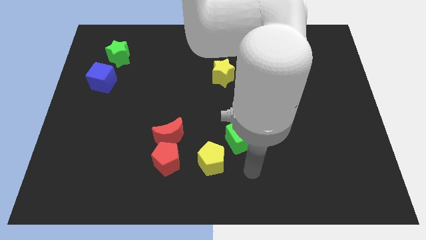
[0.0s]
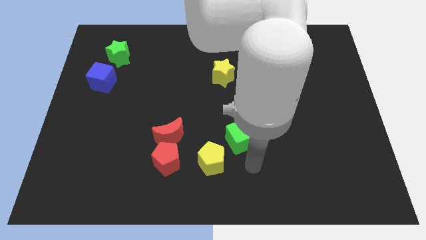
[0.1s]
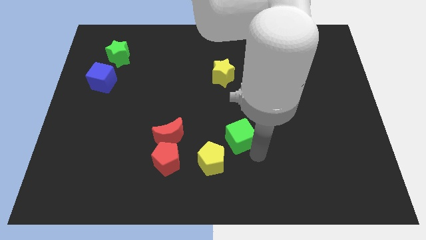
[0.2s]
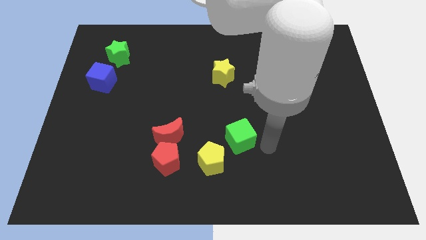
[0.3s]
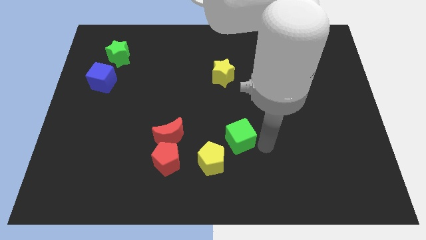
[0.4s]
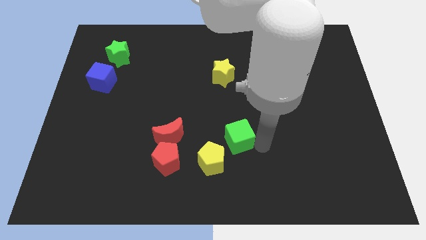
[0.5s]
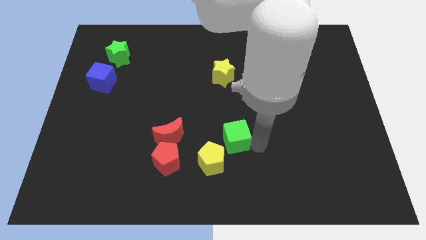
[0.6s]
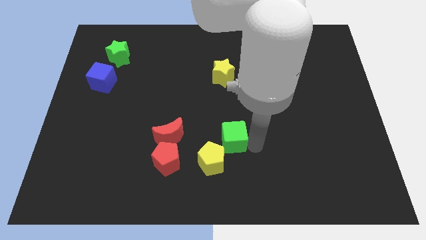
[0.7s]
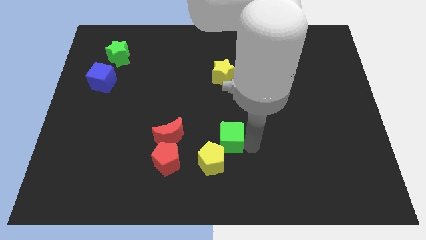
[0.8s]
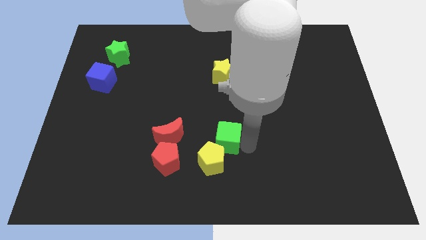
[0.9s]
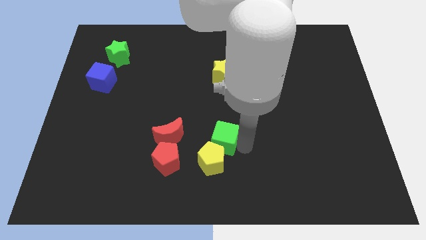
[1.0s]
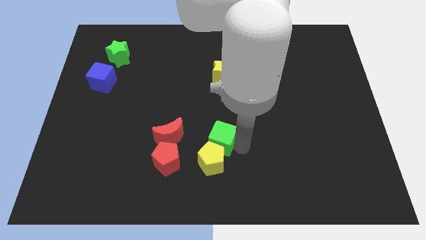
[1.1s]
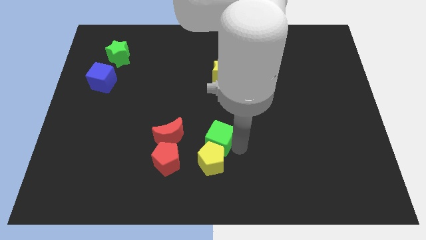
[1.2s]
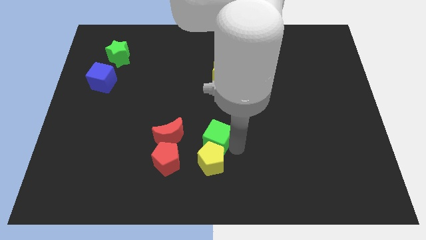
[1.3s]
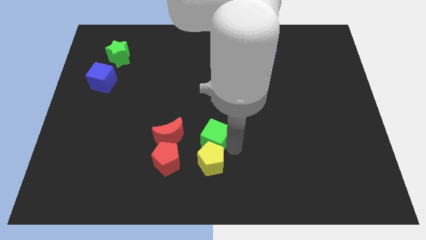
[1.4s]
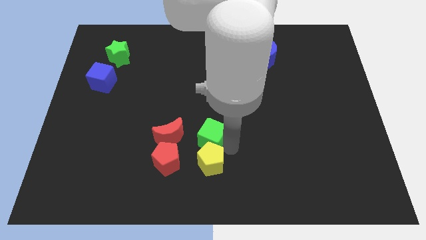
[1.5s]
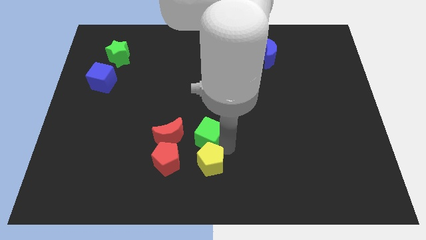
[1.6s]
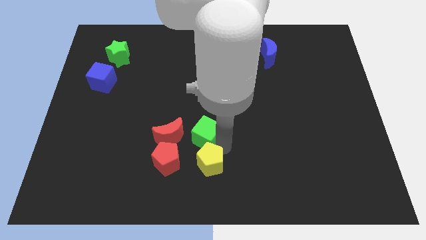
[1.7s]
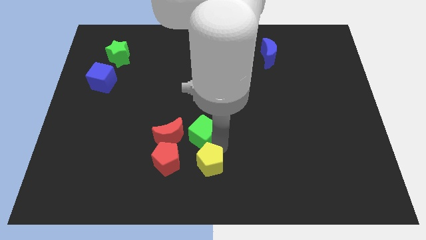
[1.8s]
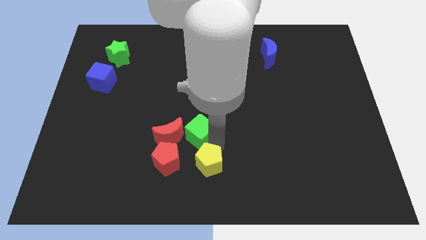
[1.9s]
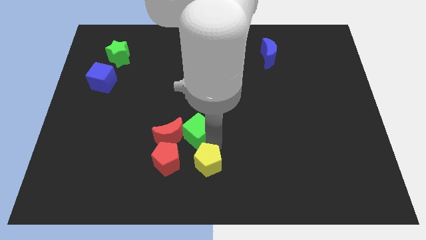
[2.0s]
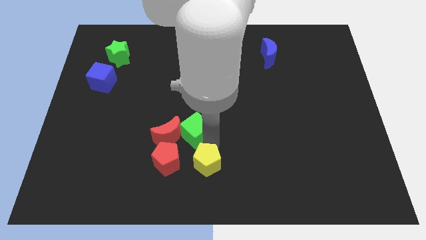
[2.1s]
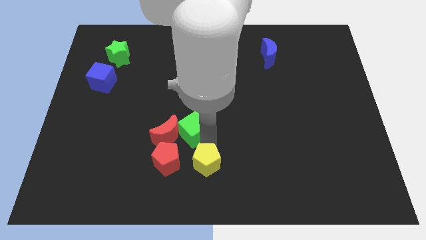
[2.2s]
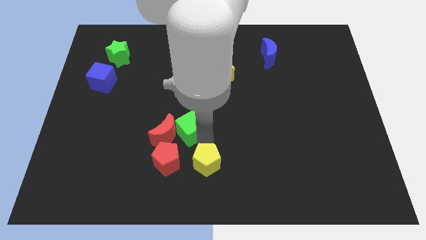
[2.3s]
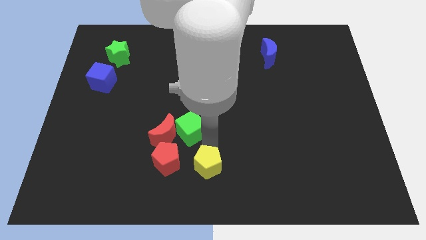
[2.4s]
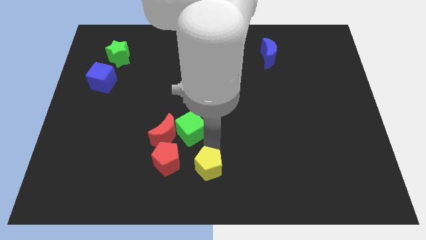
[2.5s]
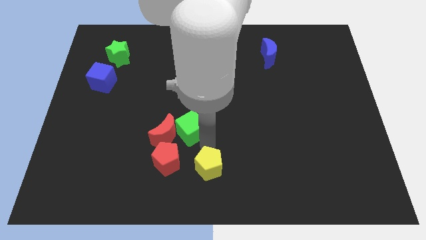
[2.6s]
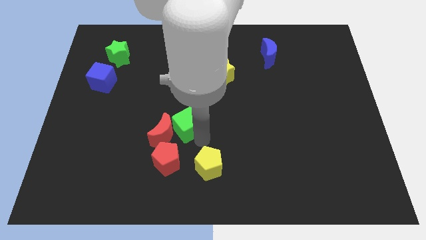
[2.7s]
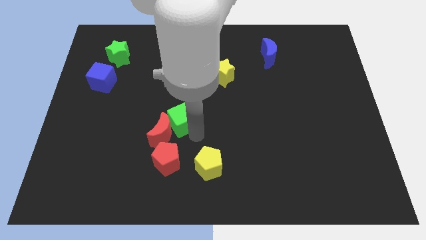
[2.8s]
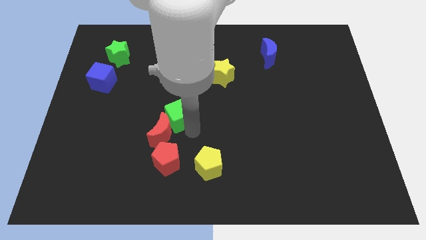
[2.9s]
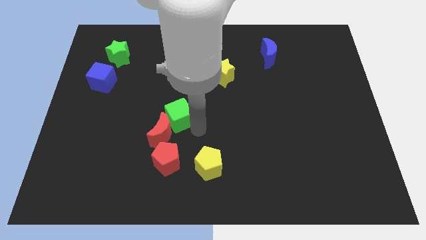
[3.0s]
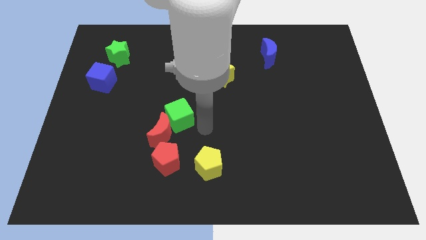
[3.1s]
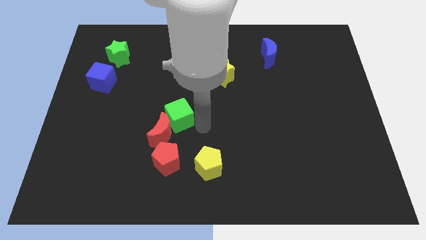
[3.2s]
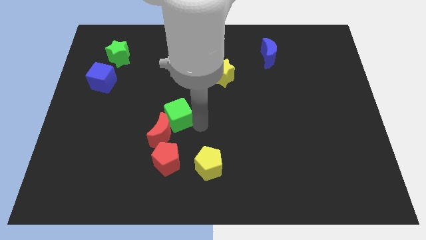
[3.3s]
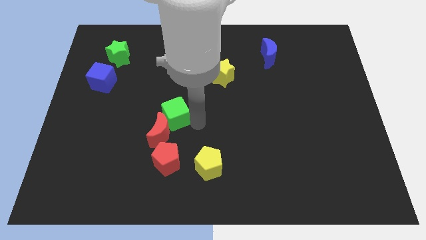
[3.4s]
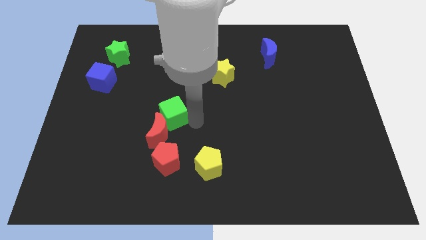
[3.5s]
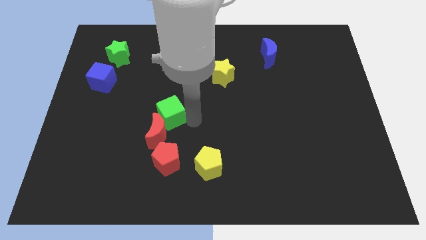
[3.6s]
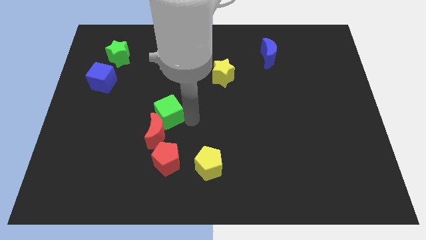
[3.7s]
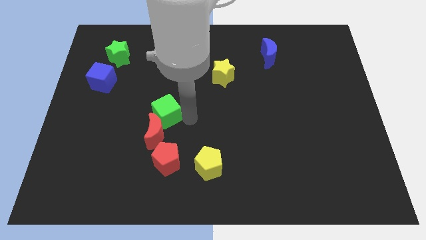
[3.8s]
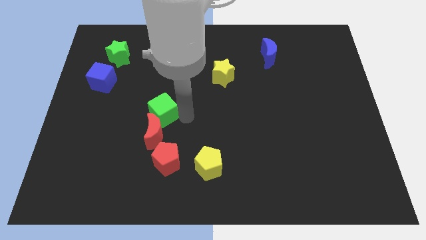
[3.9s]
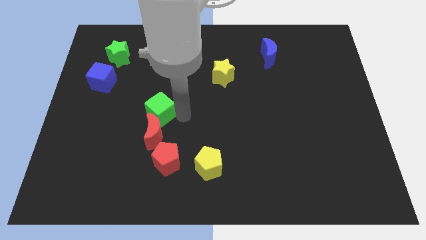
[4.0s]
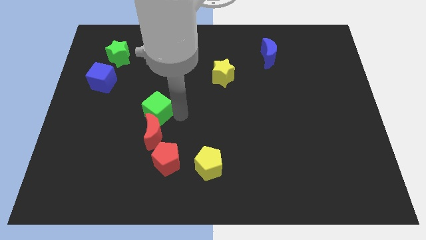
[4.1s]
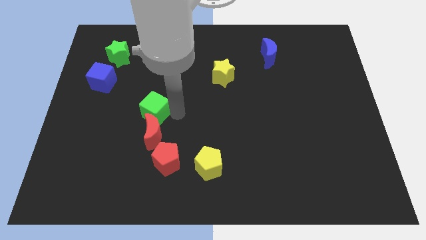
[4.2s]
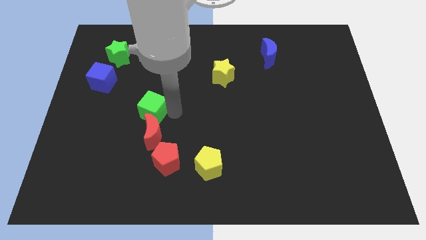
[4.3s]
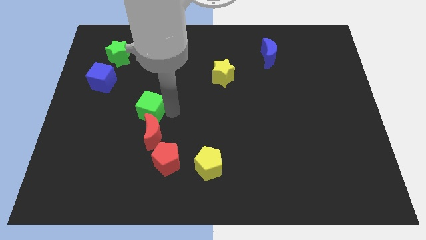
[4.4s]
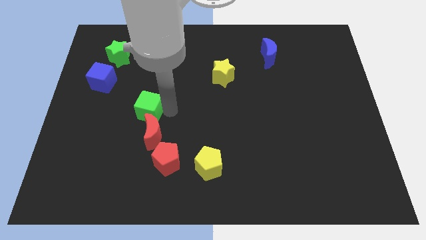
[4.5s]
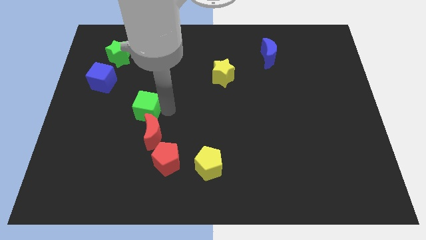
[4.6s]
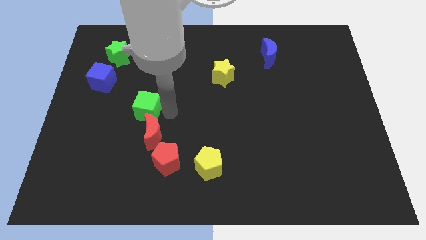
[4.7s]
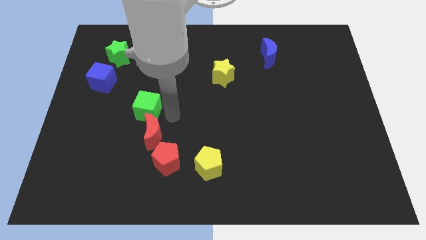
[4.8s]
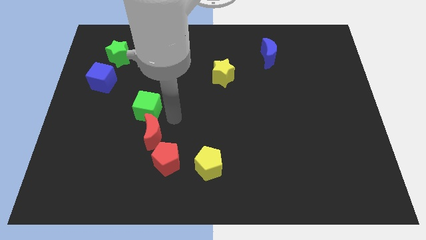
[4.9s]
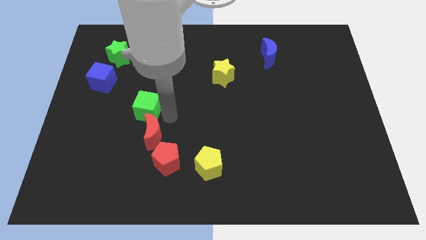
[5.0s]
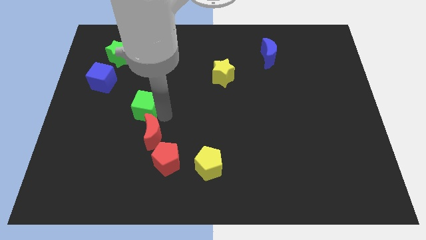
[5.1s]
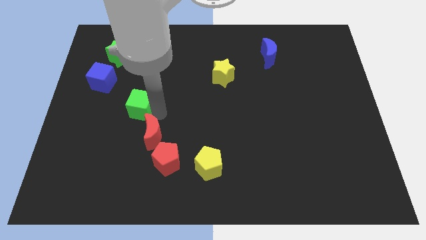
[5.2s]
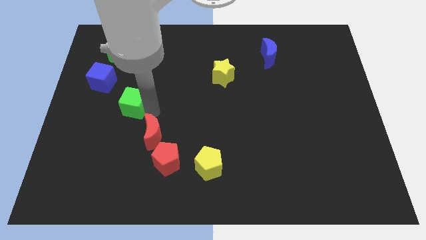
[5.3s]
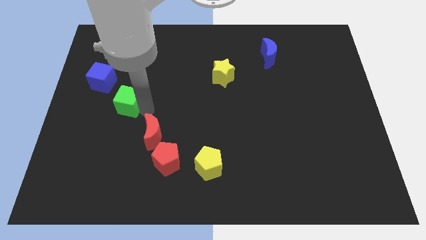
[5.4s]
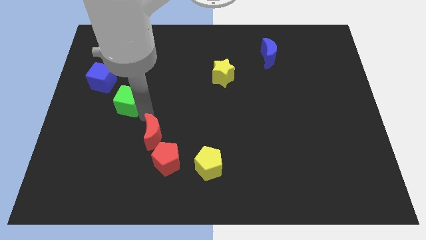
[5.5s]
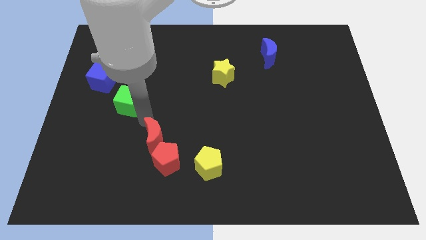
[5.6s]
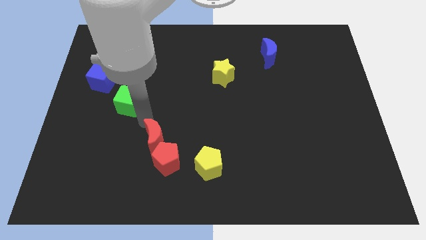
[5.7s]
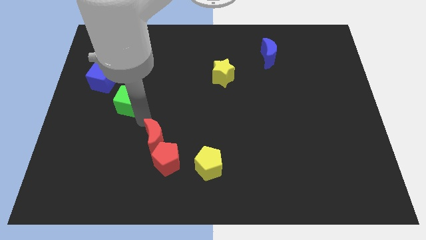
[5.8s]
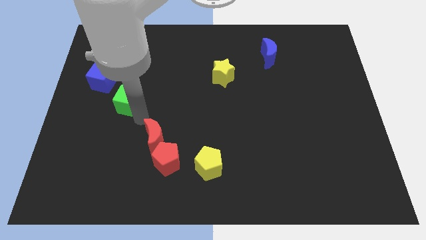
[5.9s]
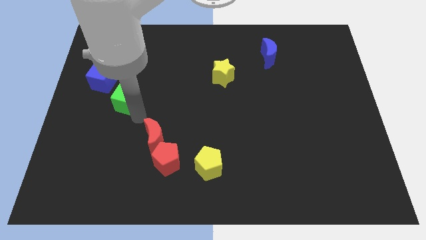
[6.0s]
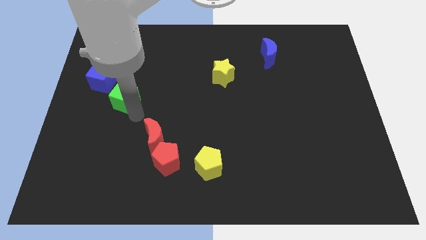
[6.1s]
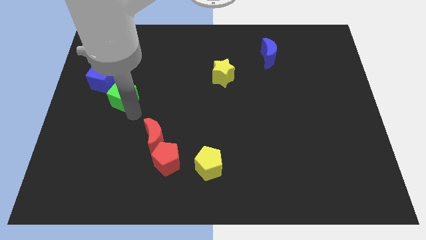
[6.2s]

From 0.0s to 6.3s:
slide the green cube to the bottom side of the green star

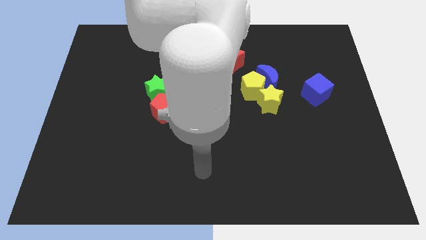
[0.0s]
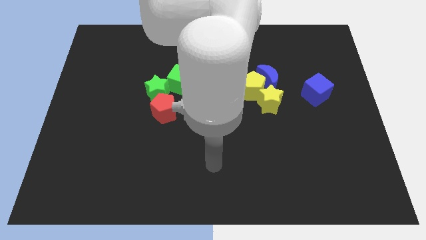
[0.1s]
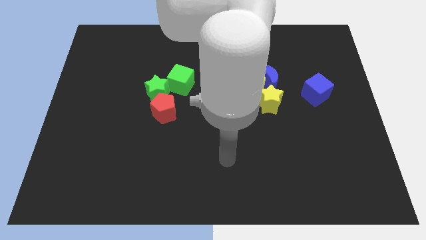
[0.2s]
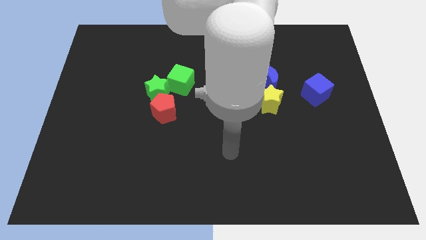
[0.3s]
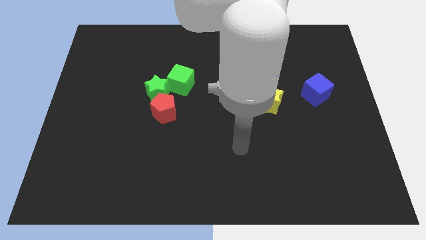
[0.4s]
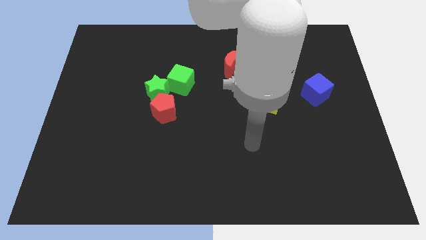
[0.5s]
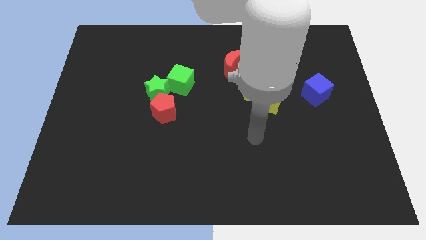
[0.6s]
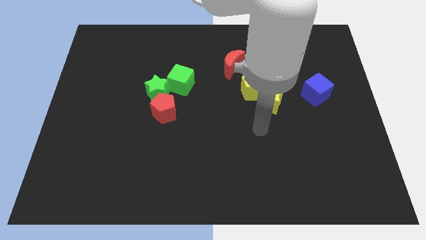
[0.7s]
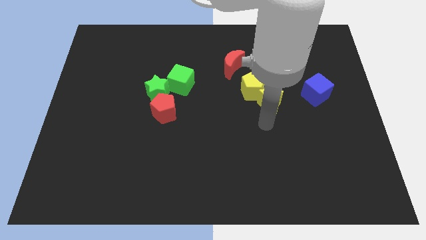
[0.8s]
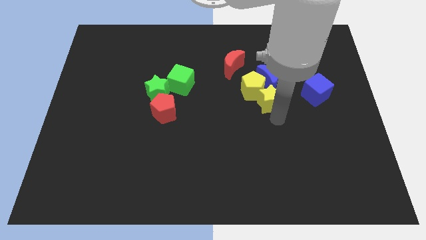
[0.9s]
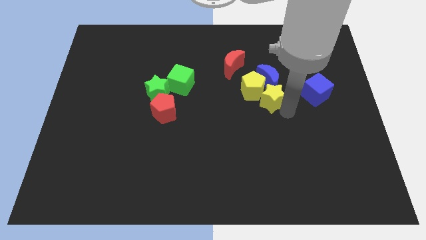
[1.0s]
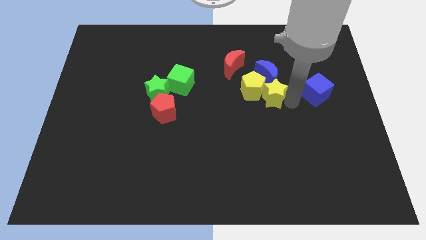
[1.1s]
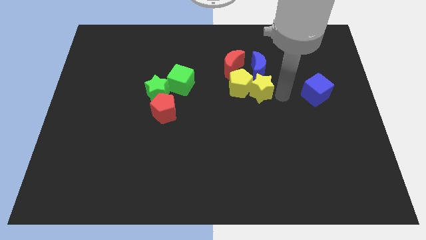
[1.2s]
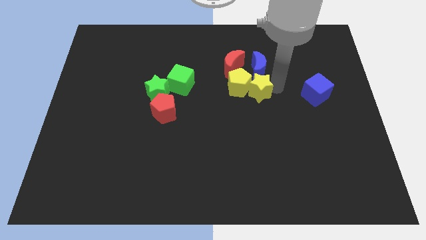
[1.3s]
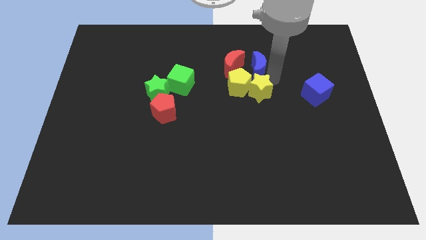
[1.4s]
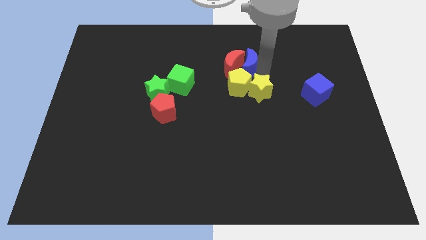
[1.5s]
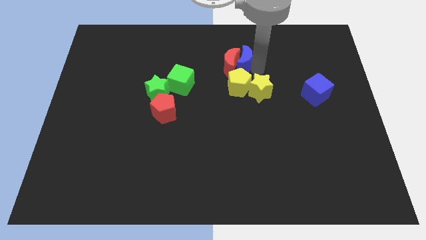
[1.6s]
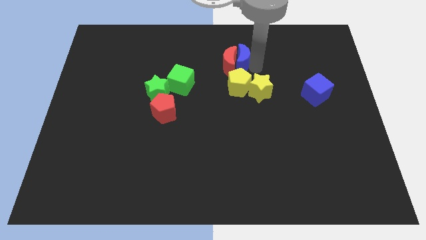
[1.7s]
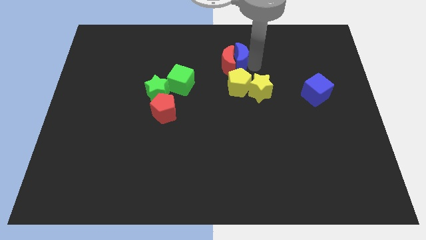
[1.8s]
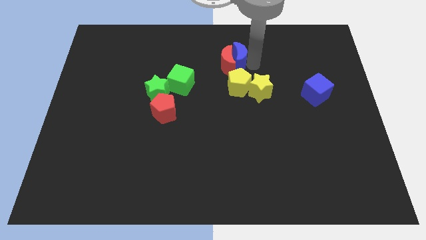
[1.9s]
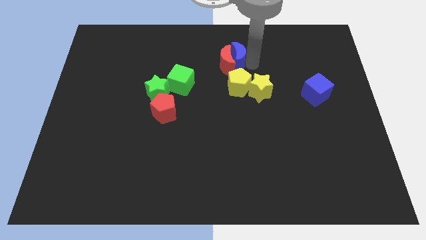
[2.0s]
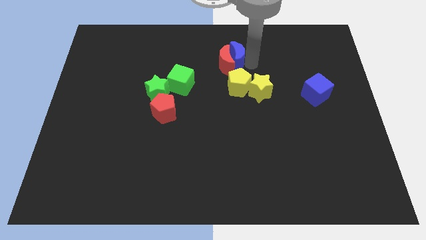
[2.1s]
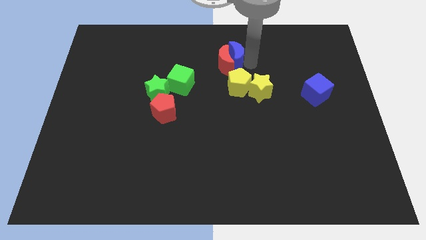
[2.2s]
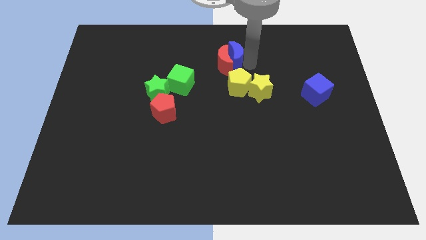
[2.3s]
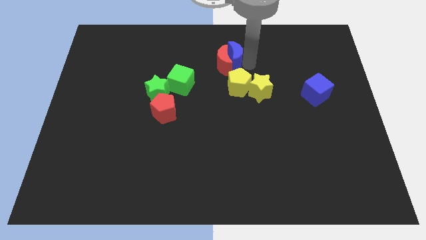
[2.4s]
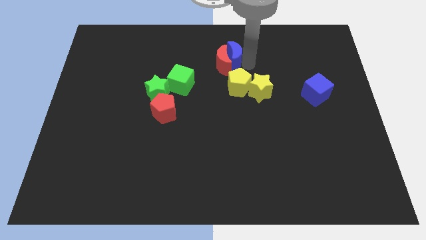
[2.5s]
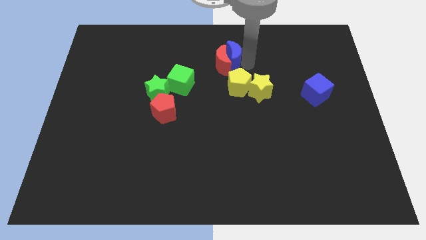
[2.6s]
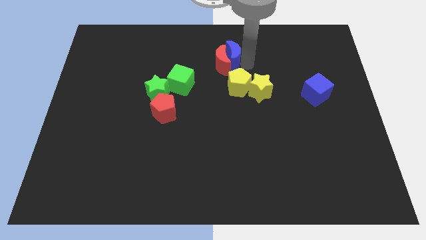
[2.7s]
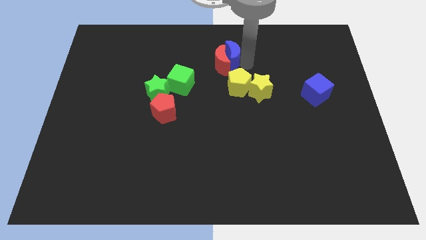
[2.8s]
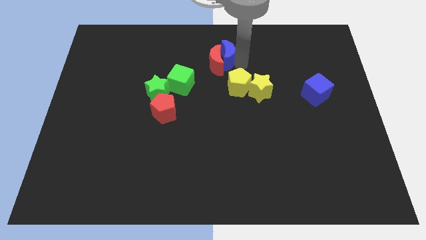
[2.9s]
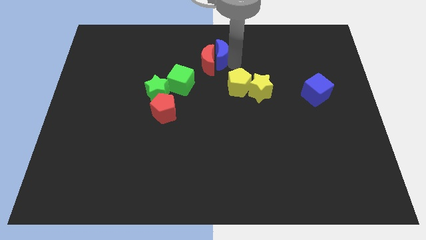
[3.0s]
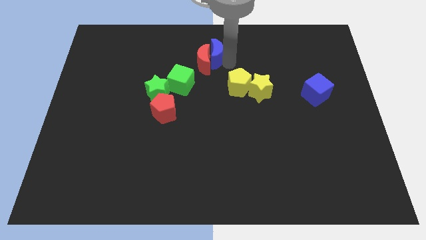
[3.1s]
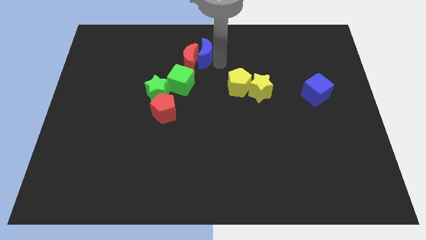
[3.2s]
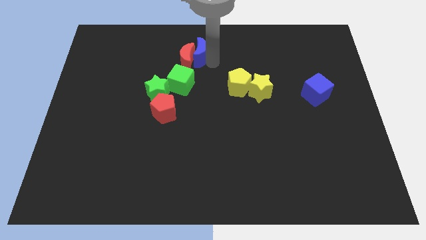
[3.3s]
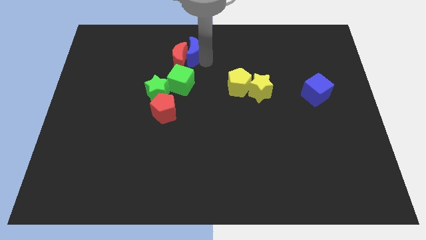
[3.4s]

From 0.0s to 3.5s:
put the red moon above the green star
